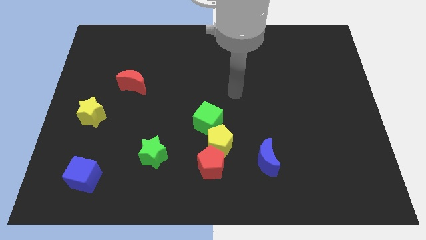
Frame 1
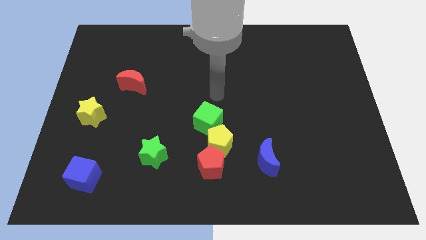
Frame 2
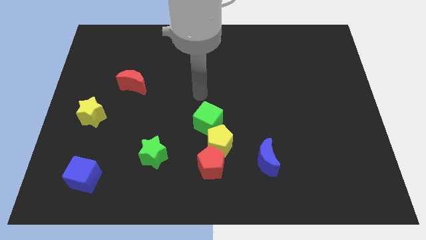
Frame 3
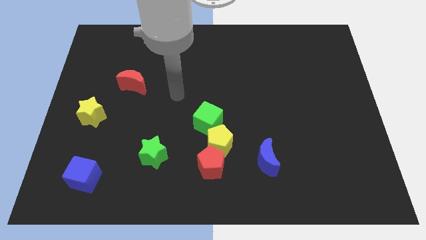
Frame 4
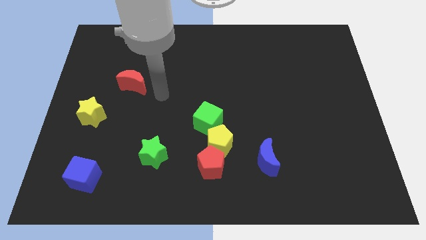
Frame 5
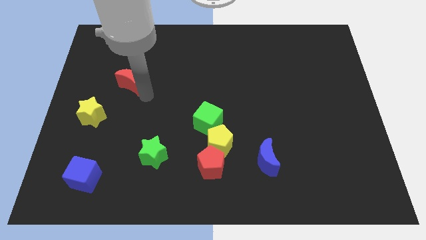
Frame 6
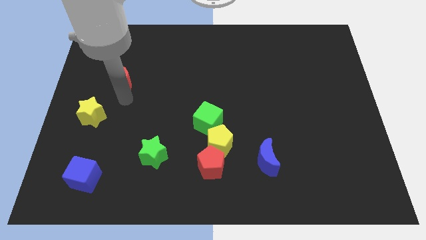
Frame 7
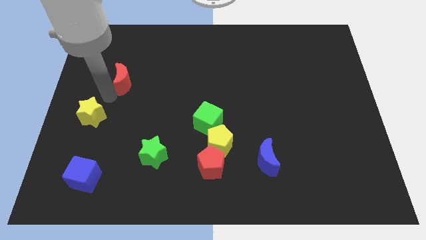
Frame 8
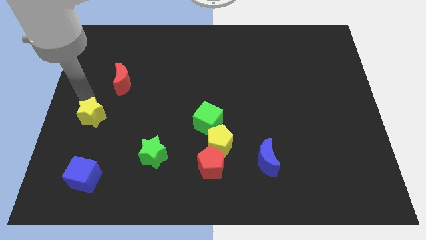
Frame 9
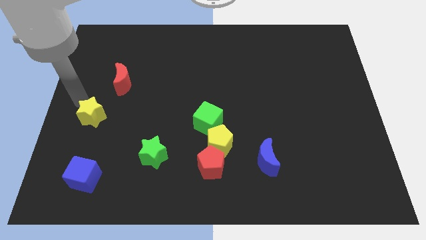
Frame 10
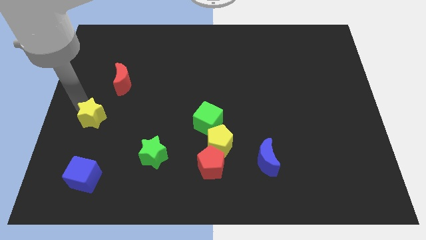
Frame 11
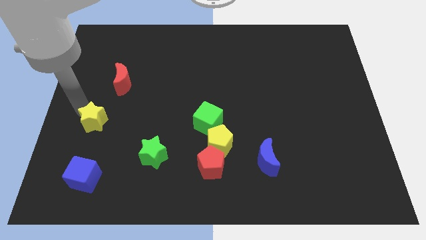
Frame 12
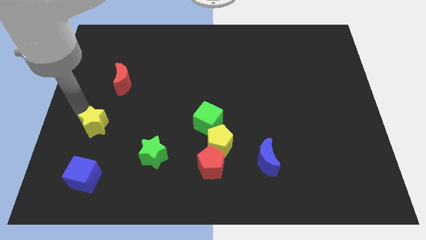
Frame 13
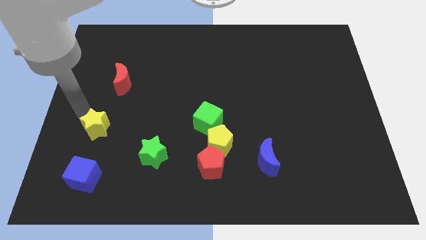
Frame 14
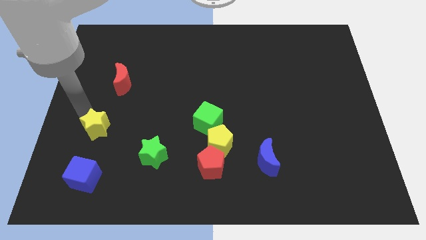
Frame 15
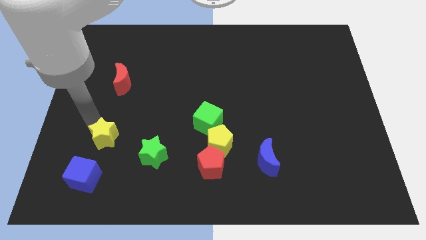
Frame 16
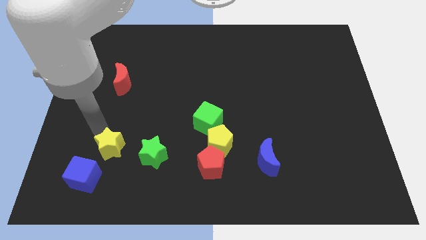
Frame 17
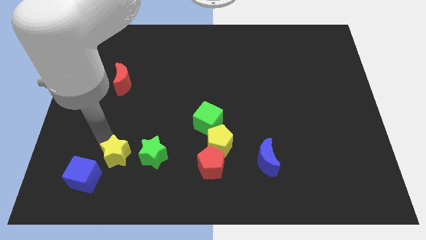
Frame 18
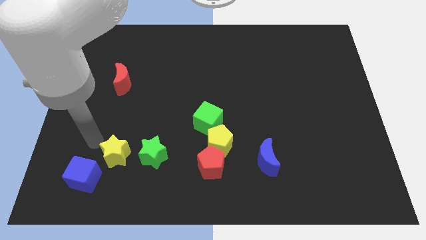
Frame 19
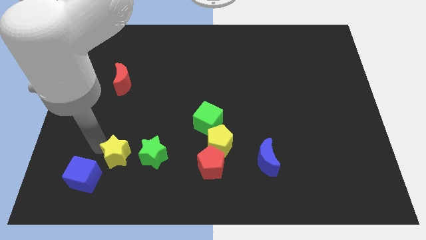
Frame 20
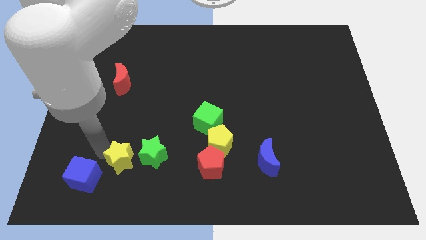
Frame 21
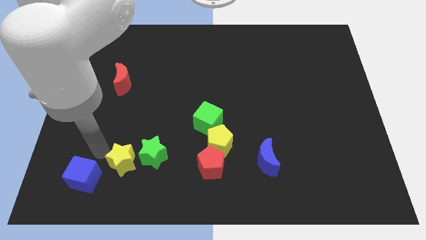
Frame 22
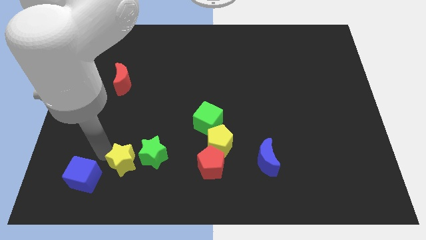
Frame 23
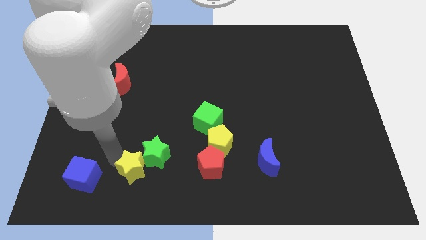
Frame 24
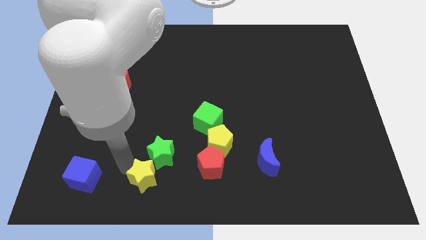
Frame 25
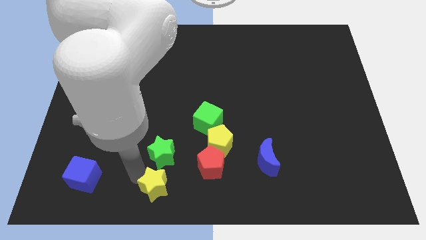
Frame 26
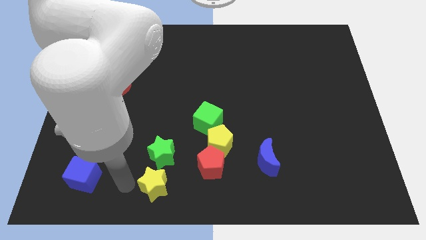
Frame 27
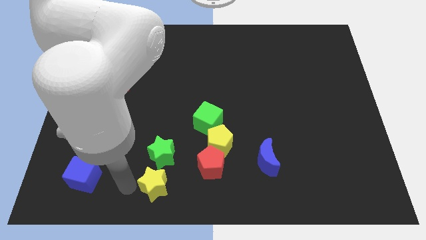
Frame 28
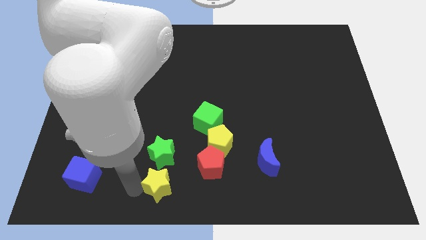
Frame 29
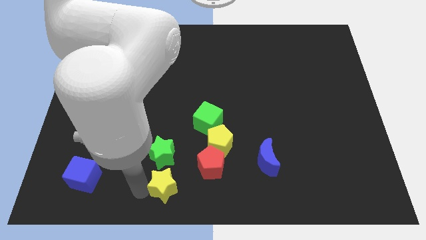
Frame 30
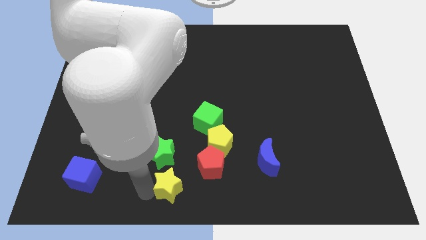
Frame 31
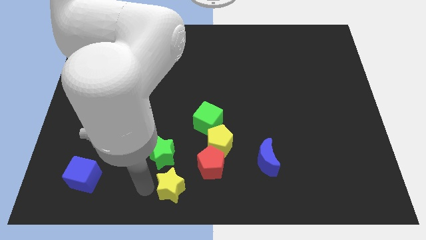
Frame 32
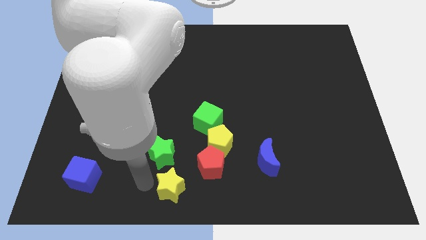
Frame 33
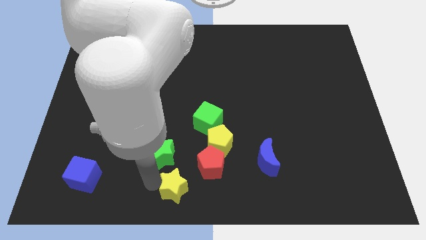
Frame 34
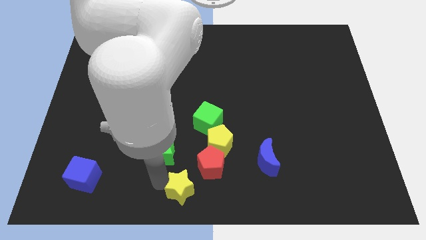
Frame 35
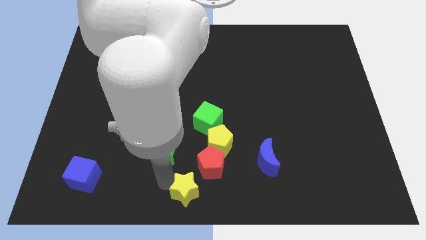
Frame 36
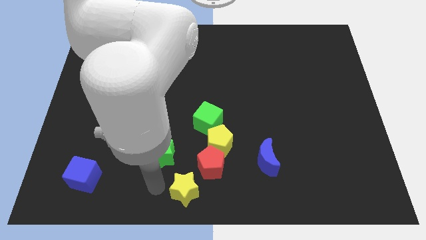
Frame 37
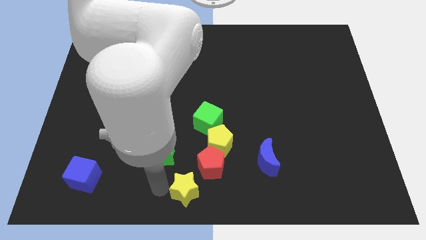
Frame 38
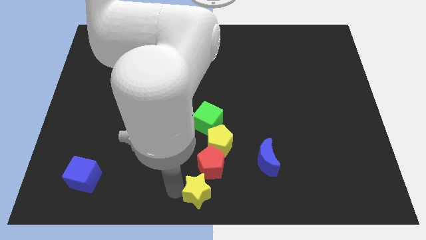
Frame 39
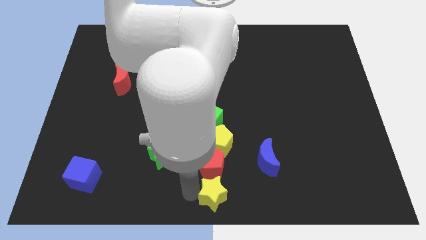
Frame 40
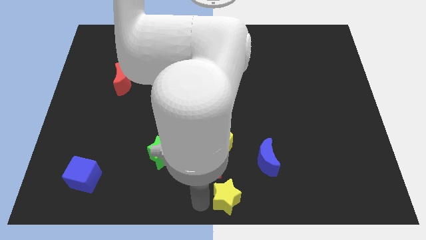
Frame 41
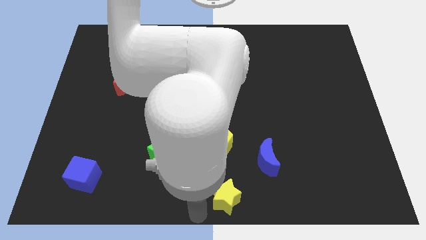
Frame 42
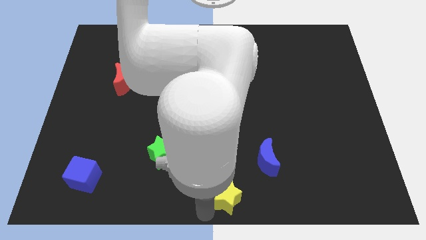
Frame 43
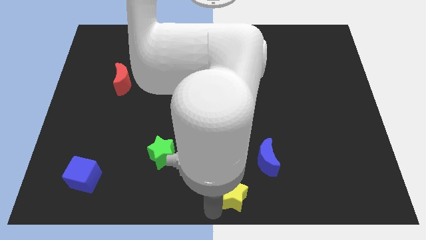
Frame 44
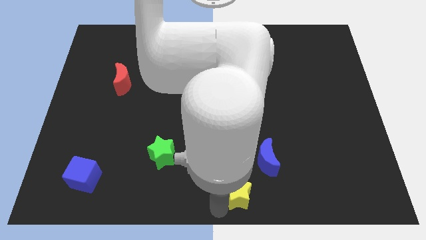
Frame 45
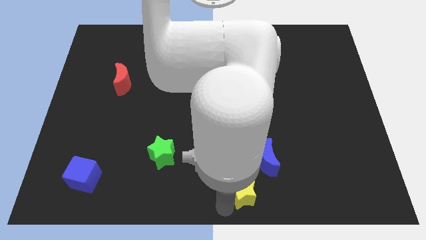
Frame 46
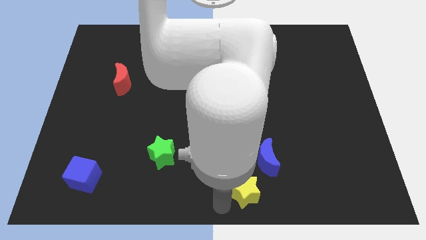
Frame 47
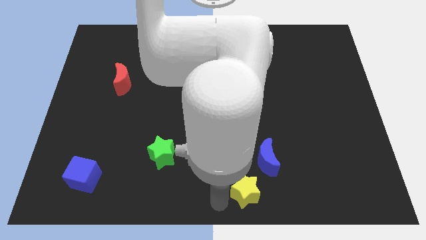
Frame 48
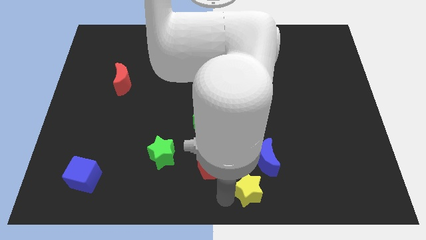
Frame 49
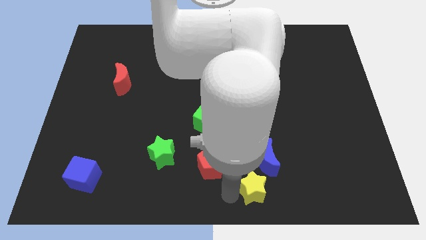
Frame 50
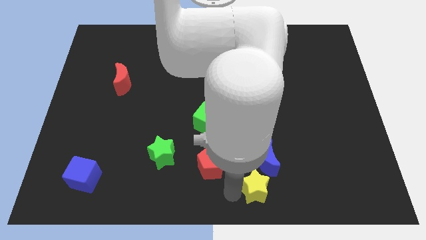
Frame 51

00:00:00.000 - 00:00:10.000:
push the yellow star just right of the red pentagon

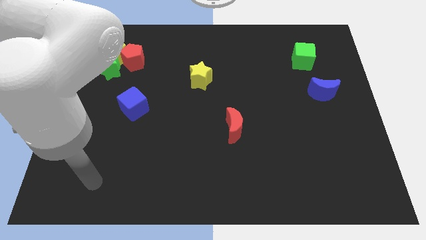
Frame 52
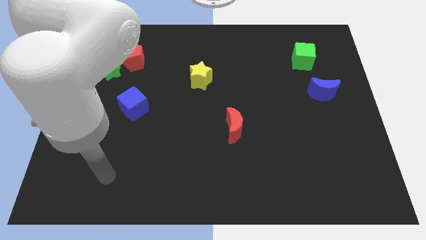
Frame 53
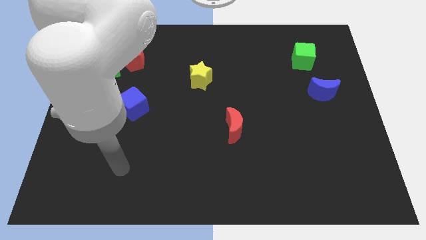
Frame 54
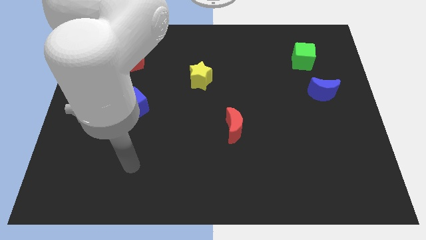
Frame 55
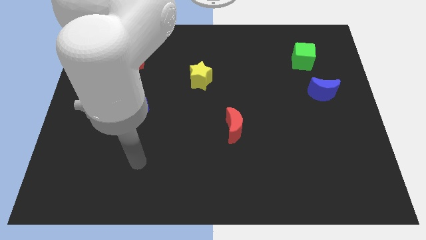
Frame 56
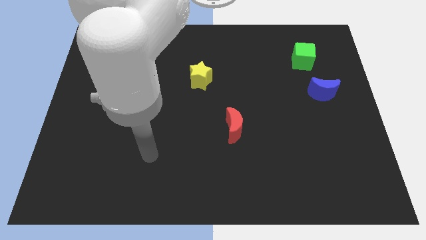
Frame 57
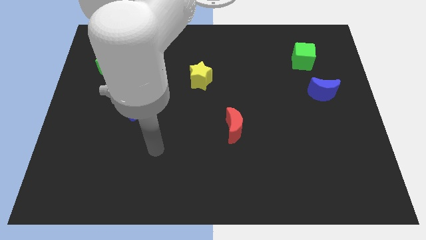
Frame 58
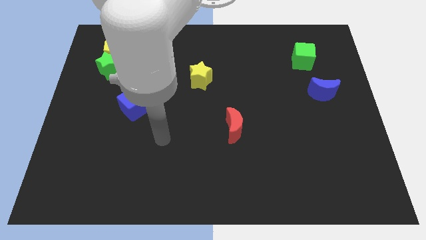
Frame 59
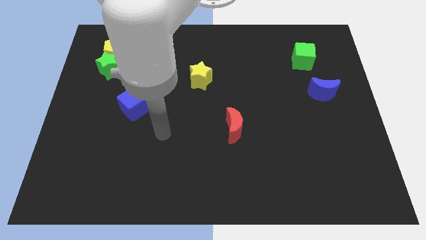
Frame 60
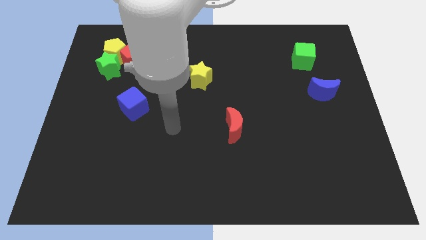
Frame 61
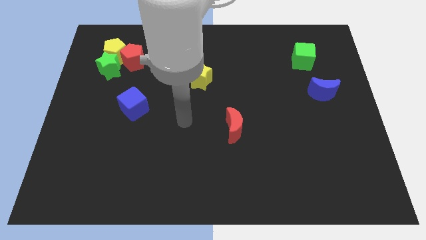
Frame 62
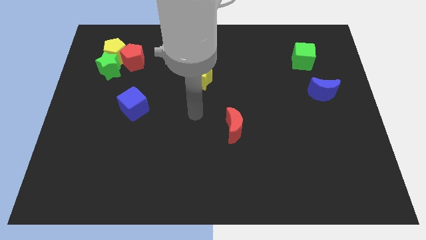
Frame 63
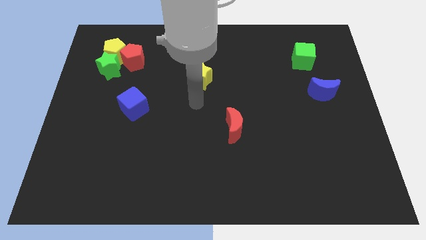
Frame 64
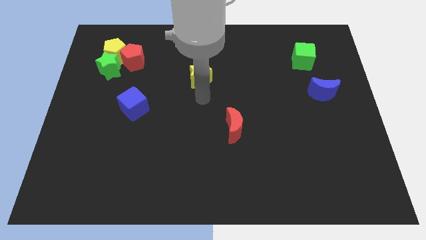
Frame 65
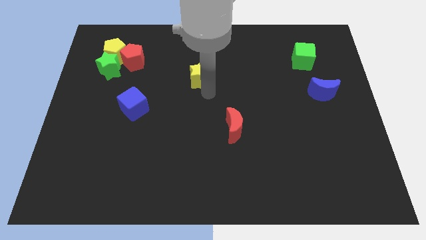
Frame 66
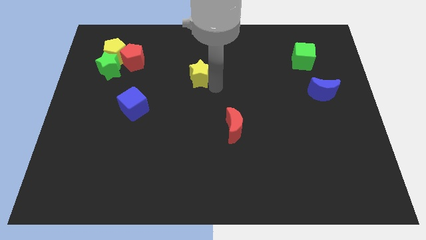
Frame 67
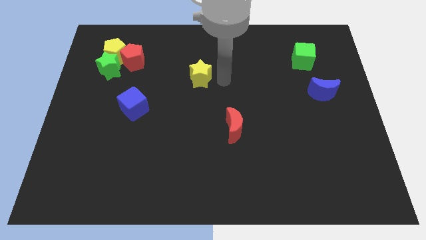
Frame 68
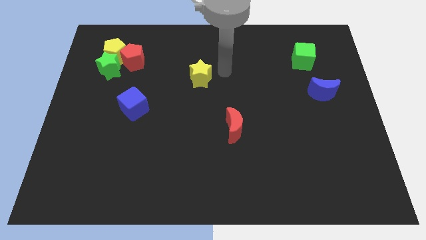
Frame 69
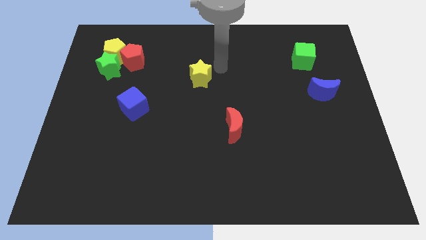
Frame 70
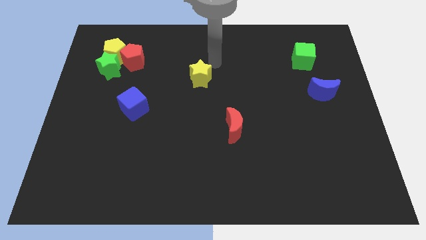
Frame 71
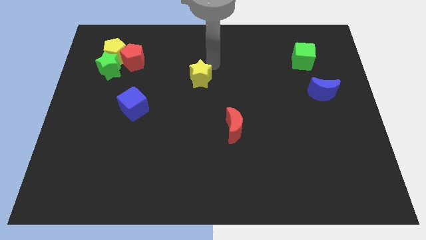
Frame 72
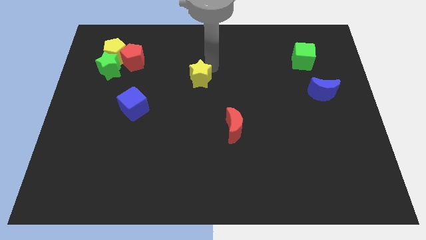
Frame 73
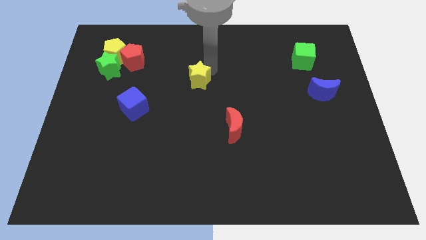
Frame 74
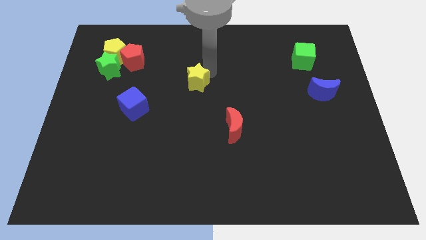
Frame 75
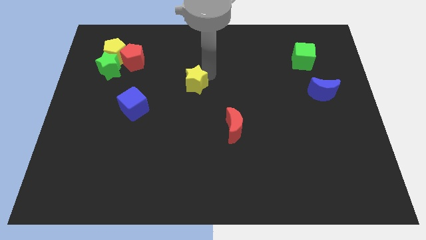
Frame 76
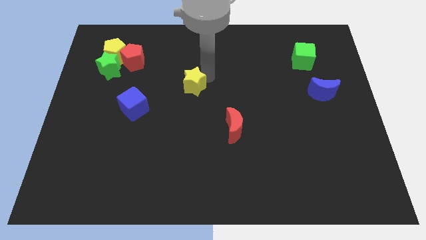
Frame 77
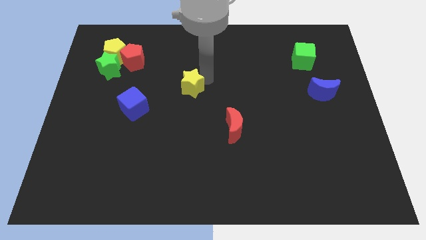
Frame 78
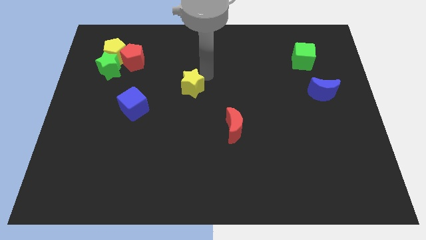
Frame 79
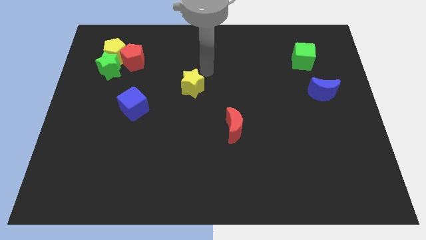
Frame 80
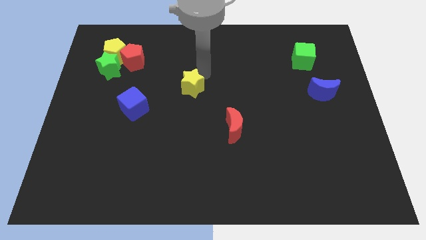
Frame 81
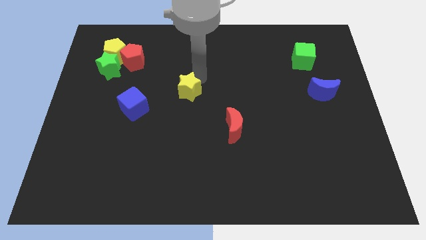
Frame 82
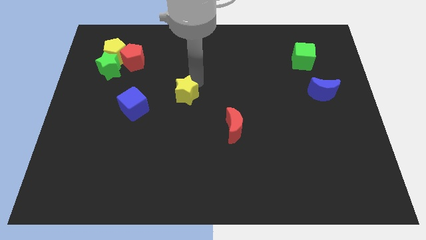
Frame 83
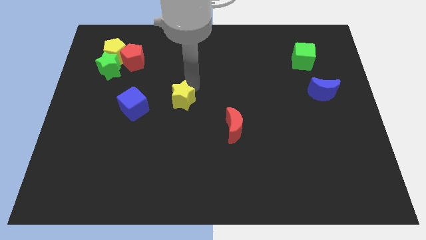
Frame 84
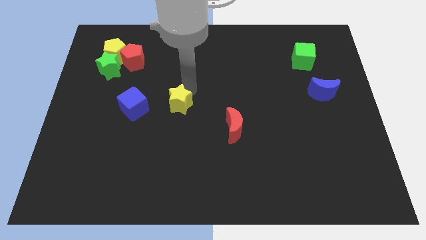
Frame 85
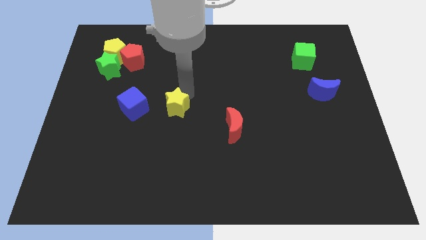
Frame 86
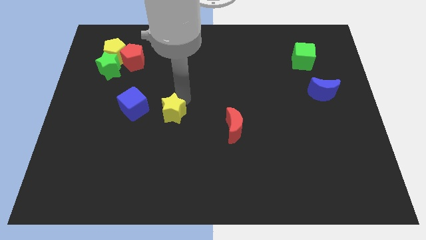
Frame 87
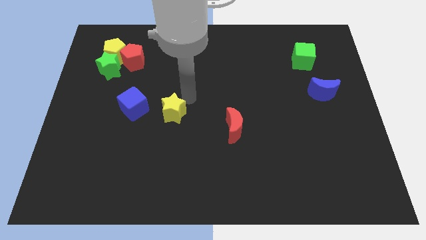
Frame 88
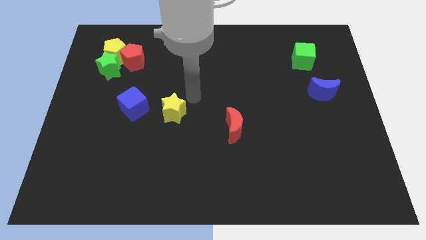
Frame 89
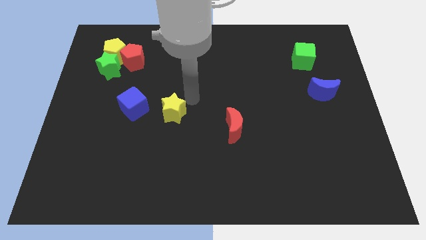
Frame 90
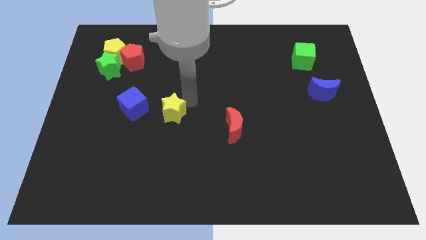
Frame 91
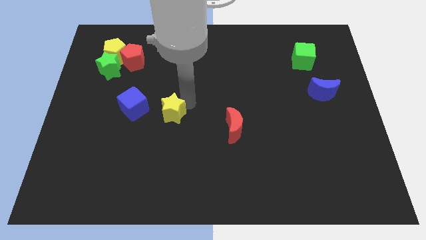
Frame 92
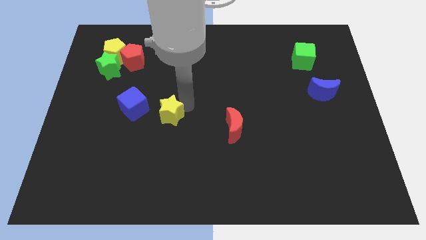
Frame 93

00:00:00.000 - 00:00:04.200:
slide the yellow star diagonally down and to the right of the blue cube
